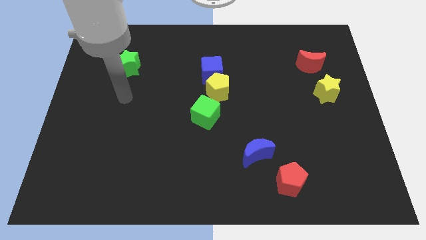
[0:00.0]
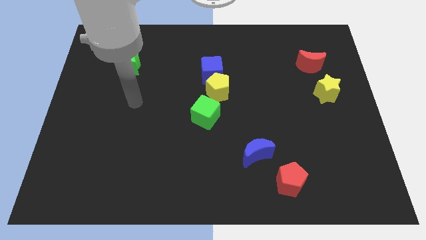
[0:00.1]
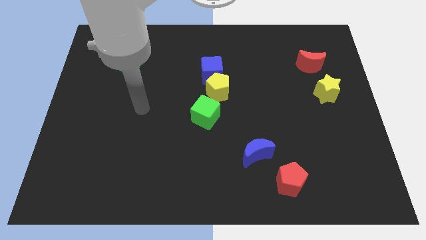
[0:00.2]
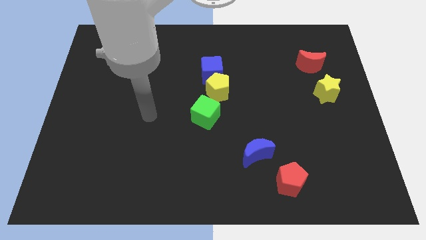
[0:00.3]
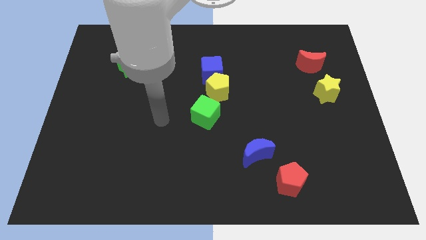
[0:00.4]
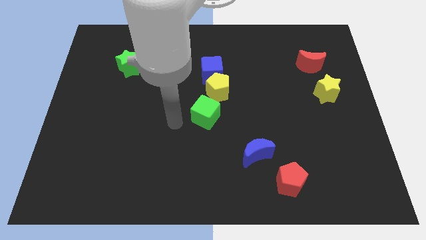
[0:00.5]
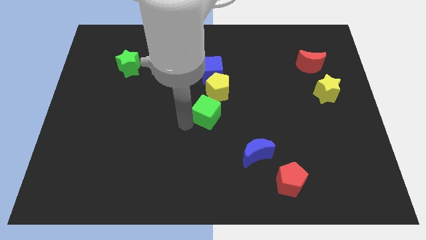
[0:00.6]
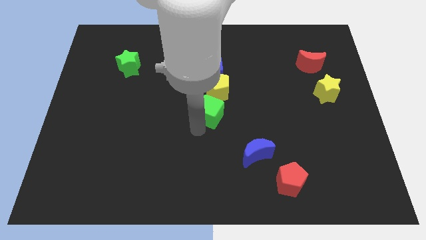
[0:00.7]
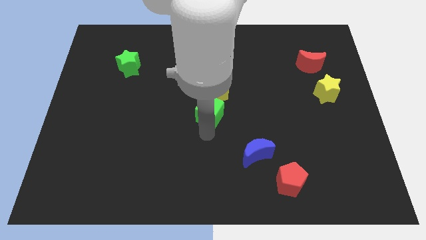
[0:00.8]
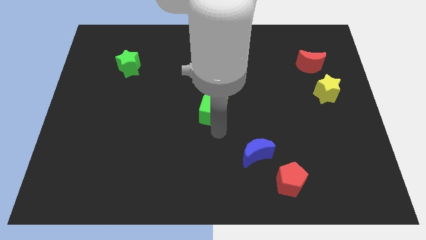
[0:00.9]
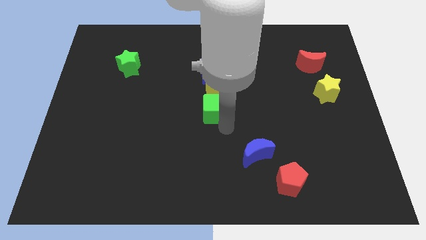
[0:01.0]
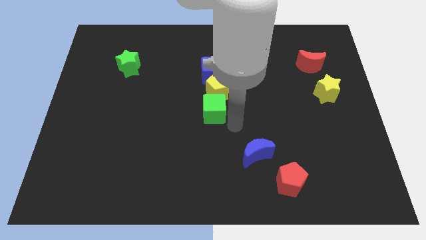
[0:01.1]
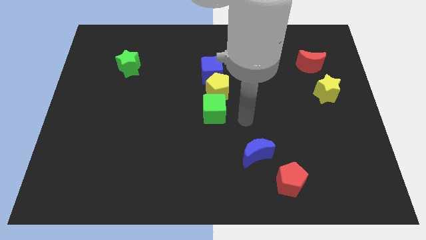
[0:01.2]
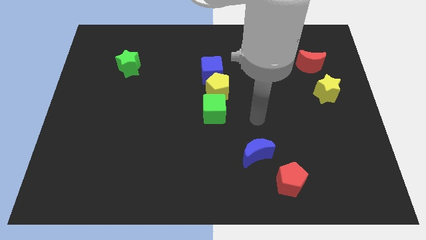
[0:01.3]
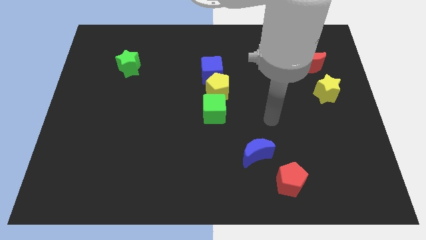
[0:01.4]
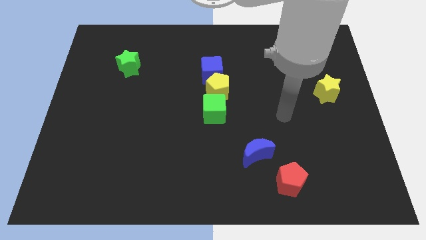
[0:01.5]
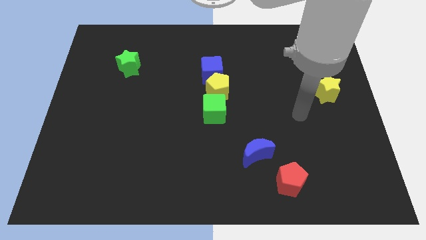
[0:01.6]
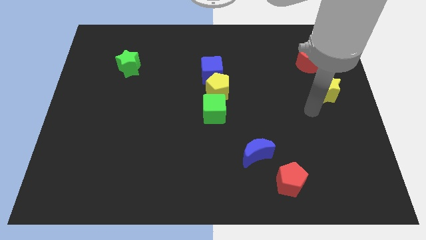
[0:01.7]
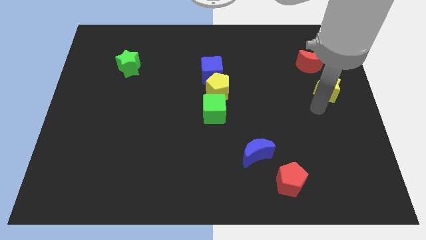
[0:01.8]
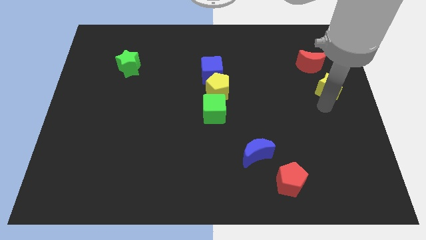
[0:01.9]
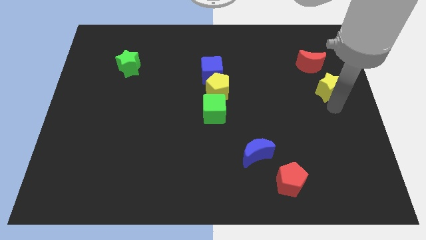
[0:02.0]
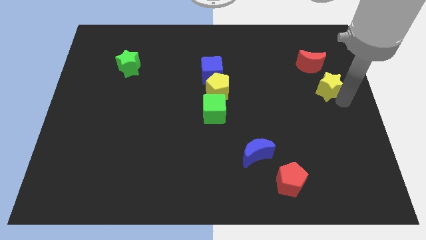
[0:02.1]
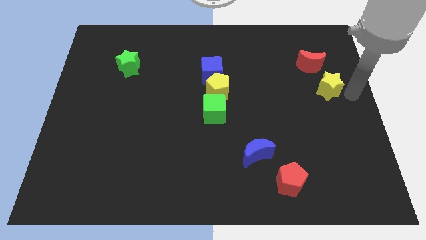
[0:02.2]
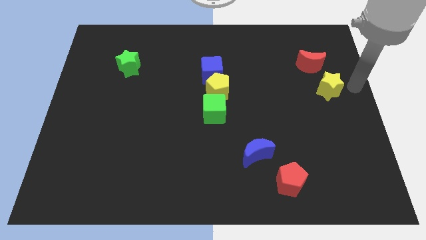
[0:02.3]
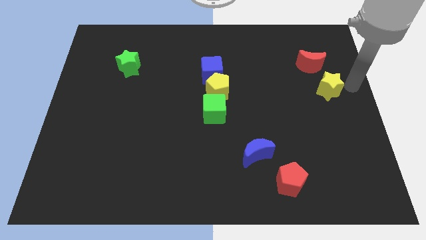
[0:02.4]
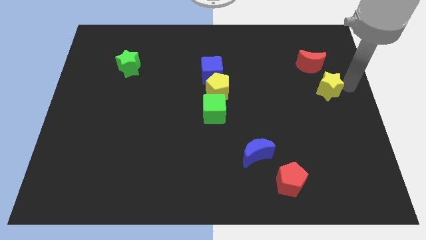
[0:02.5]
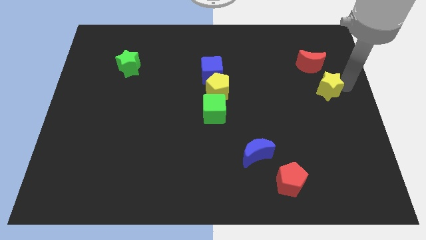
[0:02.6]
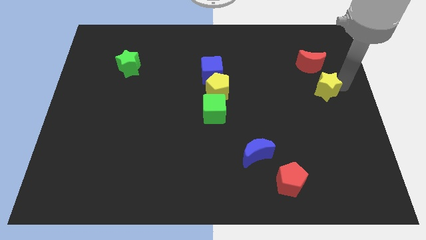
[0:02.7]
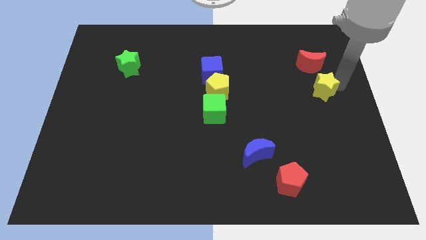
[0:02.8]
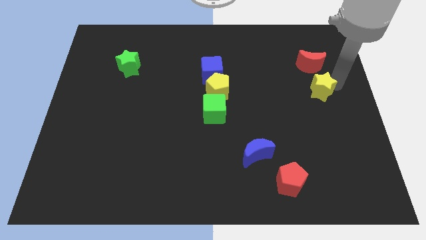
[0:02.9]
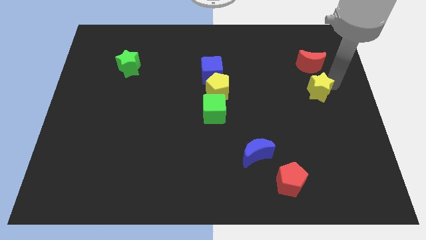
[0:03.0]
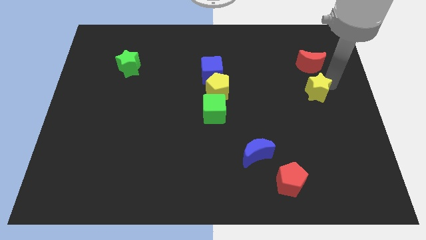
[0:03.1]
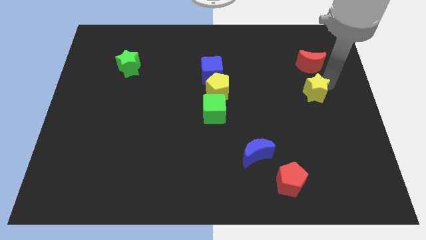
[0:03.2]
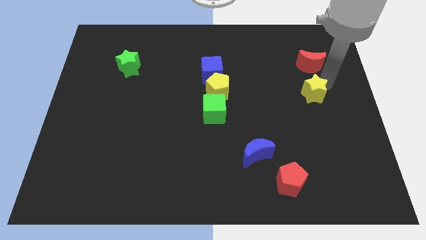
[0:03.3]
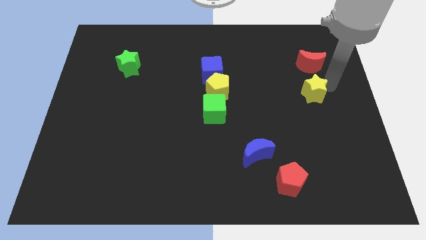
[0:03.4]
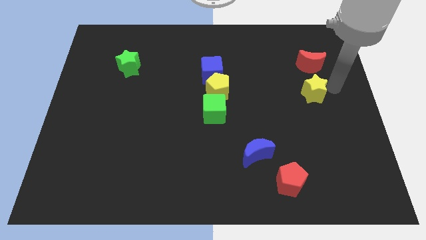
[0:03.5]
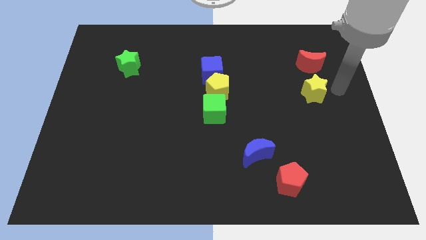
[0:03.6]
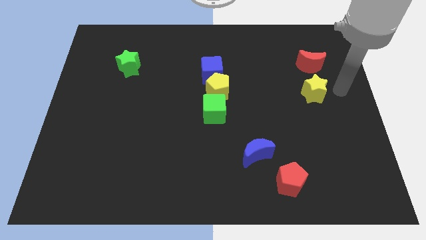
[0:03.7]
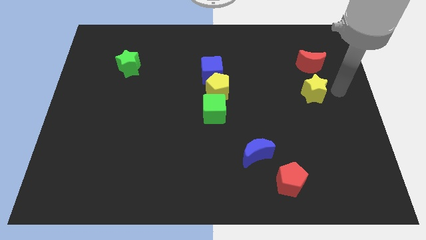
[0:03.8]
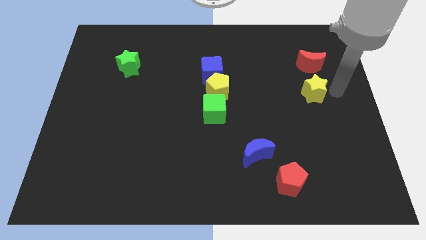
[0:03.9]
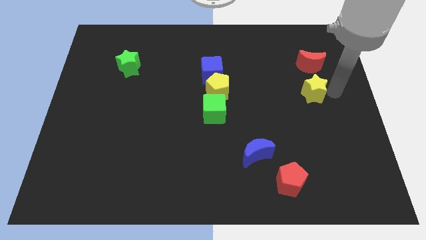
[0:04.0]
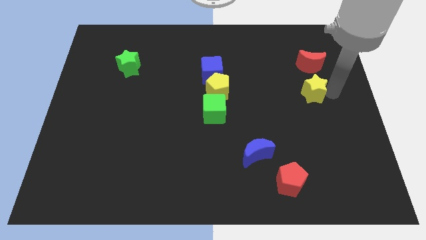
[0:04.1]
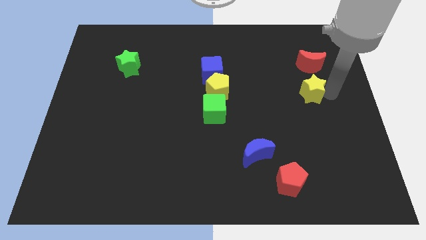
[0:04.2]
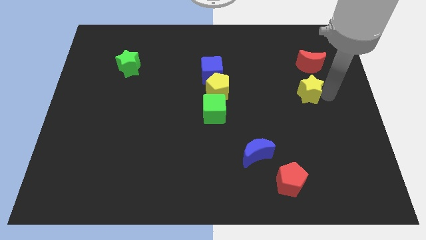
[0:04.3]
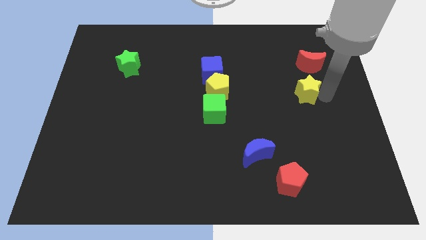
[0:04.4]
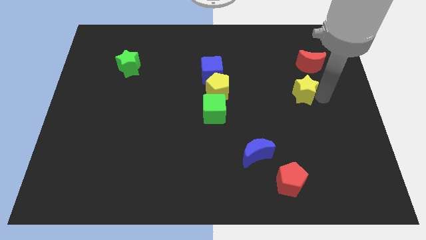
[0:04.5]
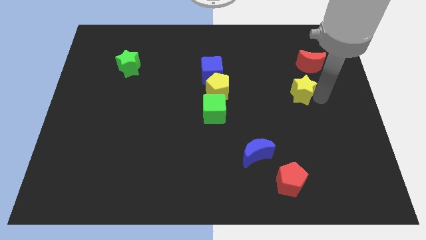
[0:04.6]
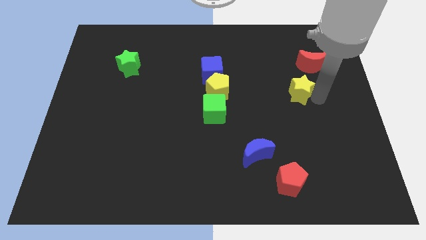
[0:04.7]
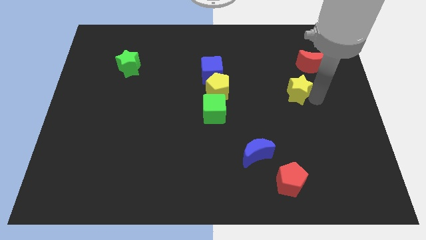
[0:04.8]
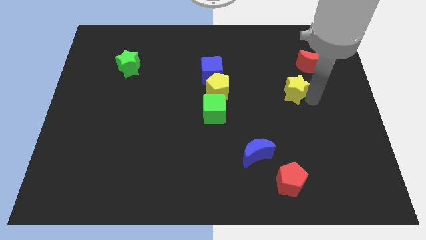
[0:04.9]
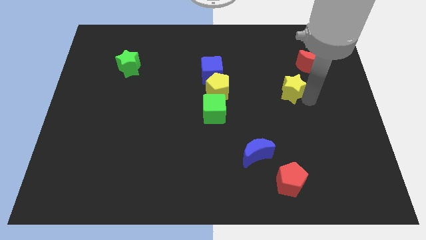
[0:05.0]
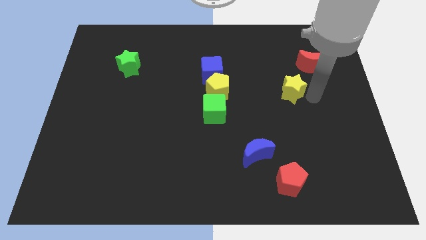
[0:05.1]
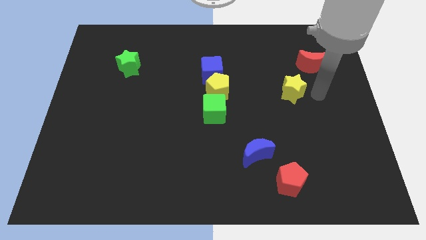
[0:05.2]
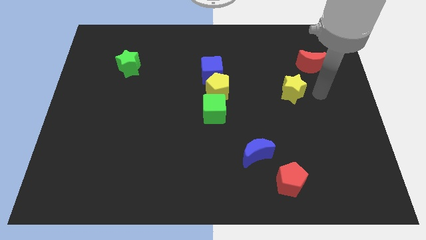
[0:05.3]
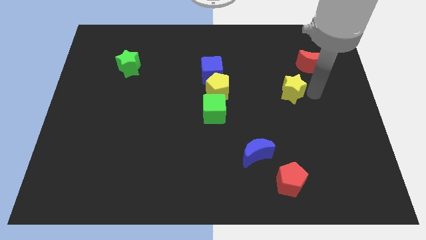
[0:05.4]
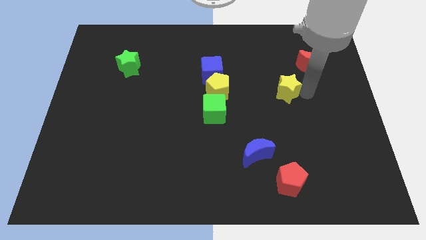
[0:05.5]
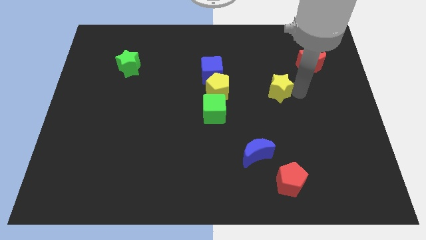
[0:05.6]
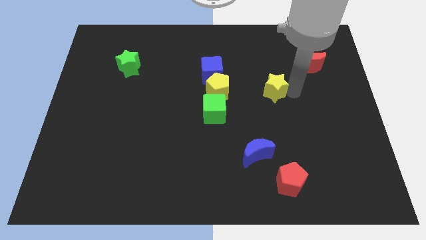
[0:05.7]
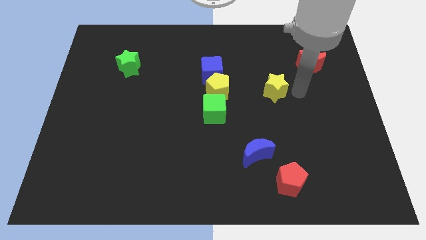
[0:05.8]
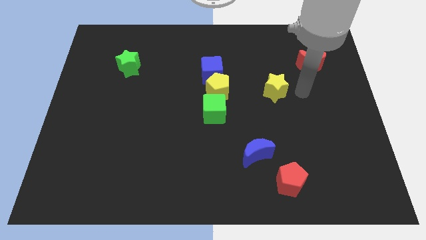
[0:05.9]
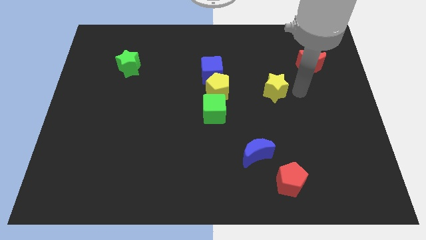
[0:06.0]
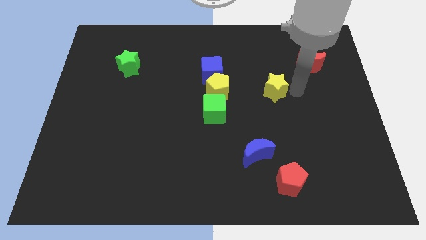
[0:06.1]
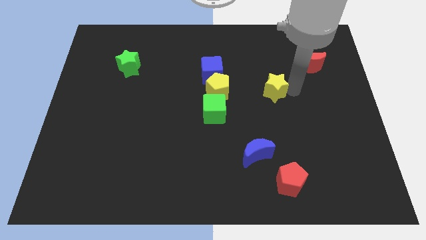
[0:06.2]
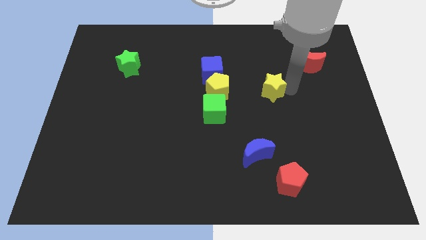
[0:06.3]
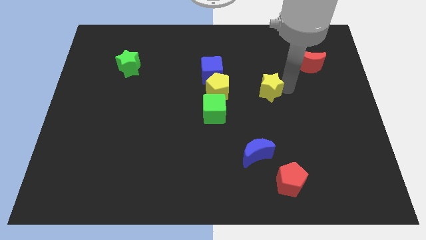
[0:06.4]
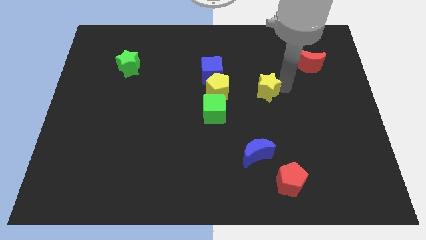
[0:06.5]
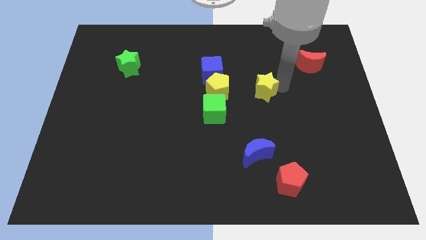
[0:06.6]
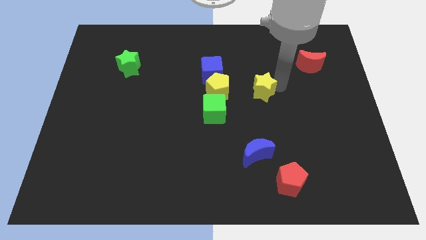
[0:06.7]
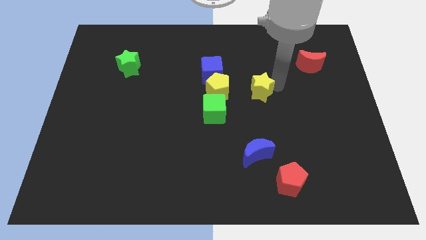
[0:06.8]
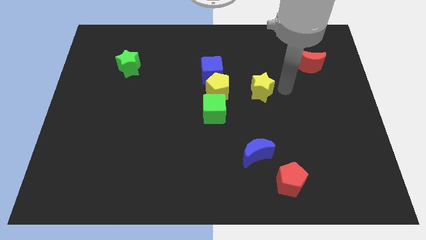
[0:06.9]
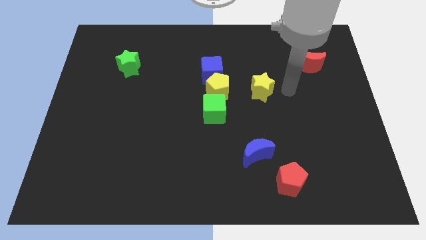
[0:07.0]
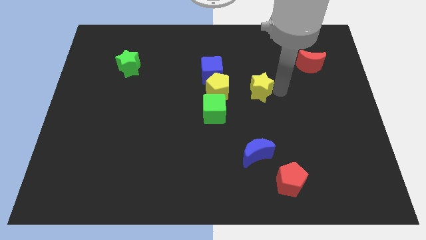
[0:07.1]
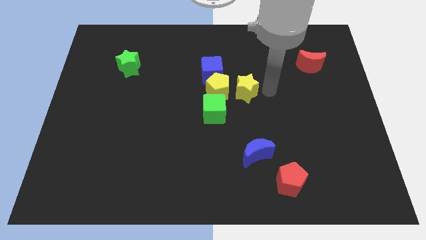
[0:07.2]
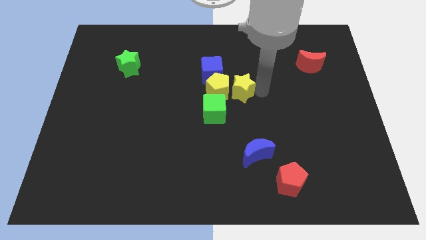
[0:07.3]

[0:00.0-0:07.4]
push the yellow star towards the yellow pentagon
